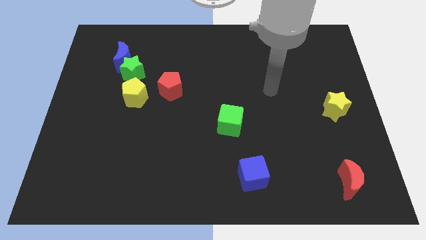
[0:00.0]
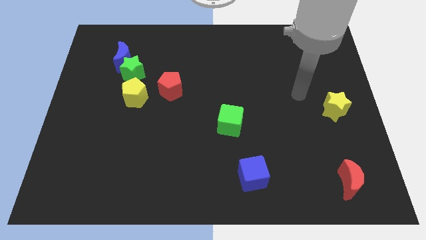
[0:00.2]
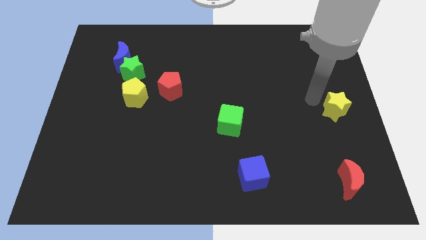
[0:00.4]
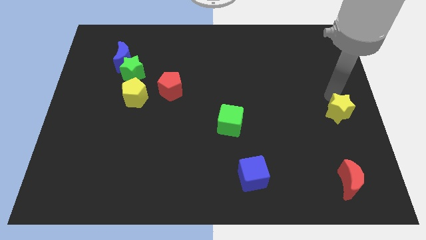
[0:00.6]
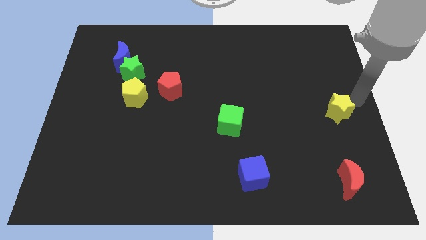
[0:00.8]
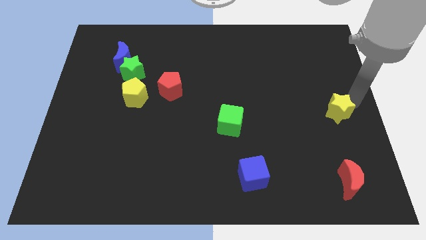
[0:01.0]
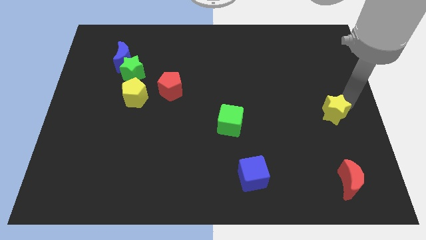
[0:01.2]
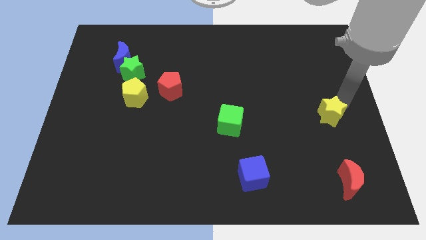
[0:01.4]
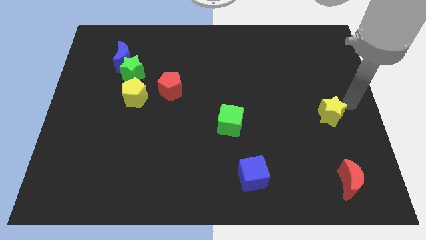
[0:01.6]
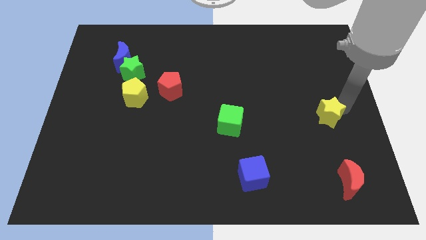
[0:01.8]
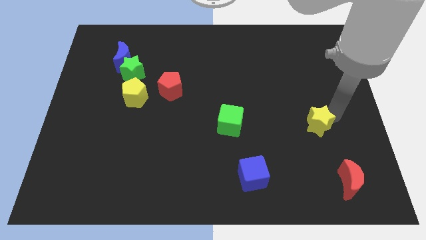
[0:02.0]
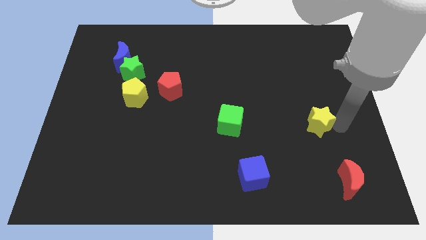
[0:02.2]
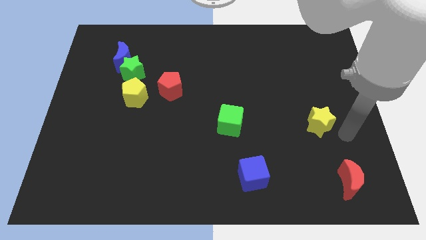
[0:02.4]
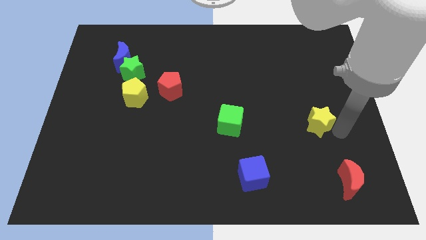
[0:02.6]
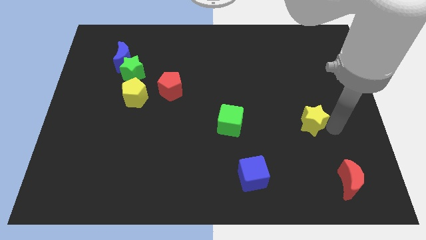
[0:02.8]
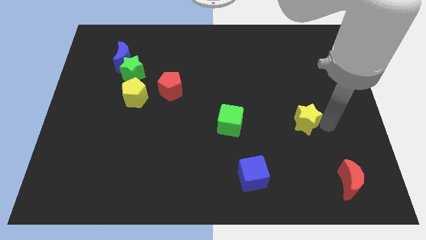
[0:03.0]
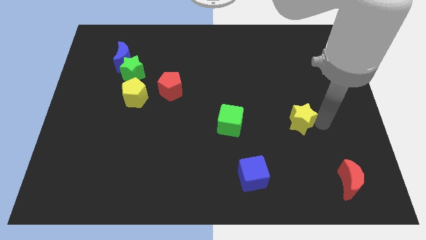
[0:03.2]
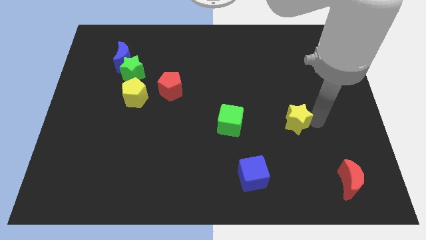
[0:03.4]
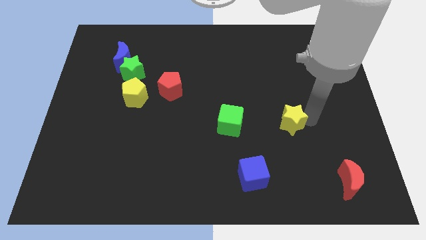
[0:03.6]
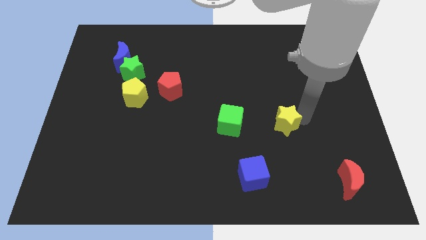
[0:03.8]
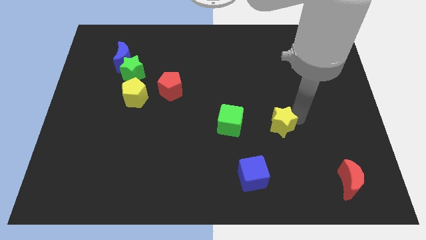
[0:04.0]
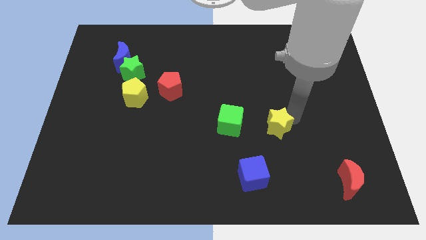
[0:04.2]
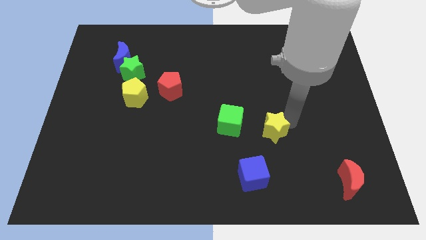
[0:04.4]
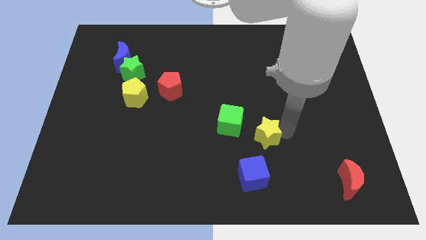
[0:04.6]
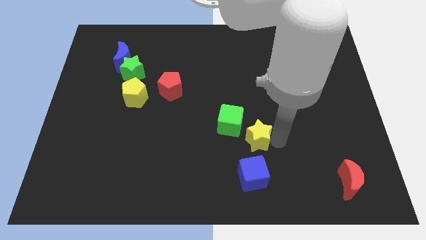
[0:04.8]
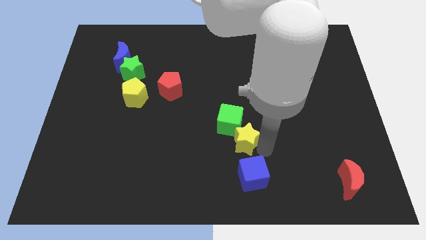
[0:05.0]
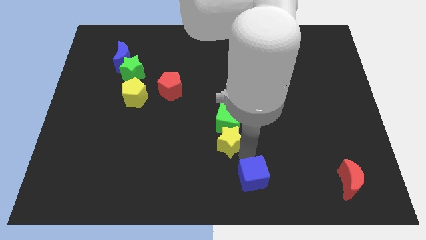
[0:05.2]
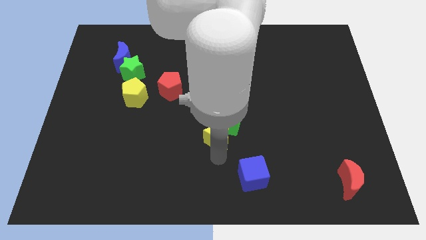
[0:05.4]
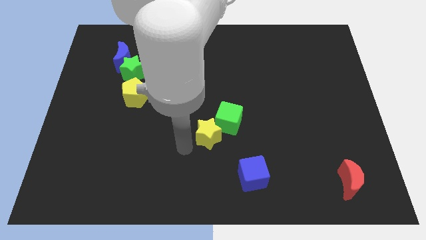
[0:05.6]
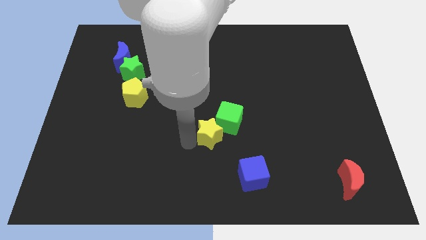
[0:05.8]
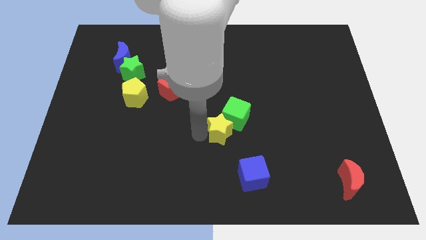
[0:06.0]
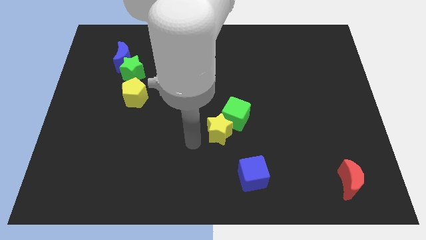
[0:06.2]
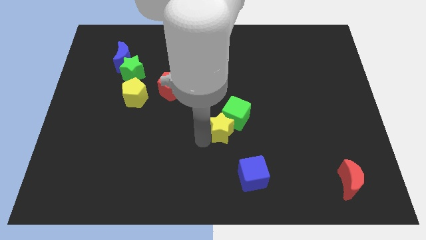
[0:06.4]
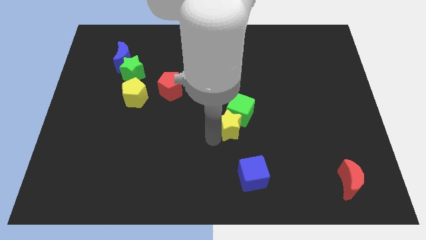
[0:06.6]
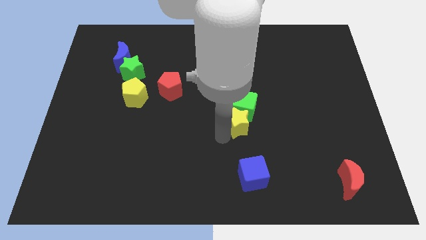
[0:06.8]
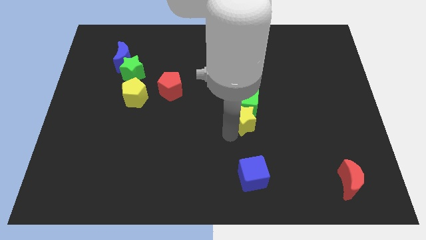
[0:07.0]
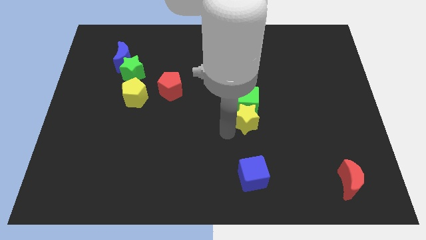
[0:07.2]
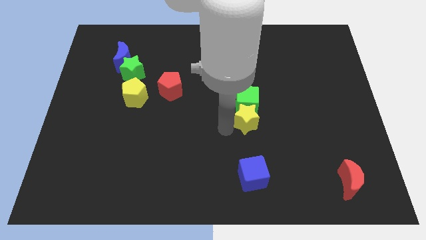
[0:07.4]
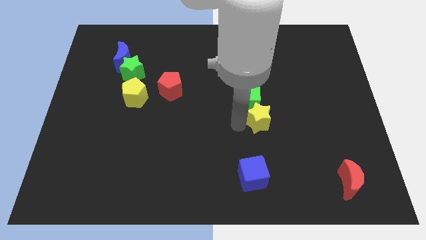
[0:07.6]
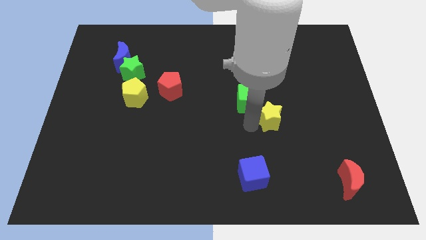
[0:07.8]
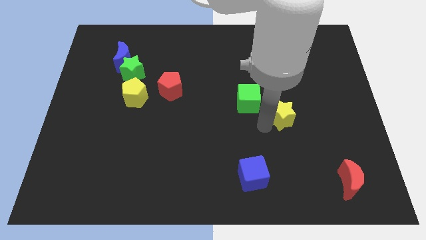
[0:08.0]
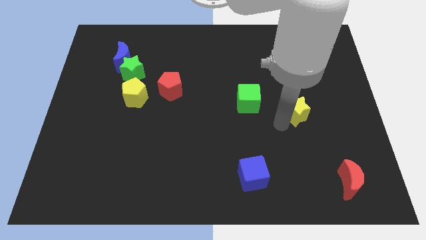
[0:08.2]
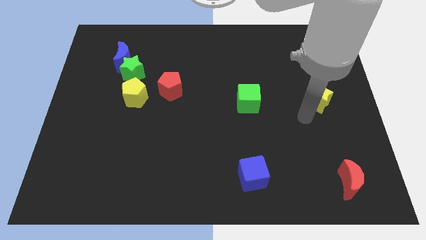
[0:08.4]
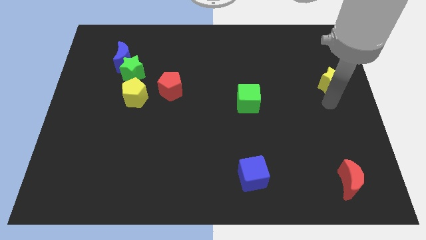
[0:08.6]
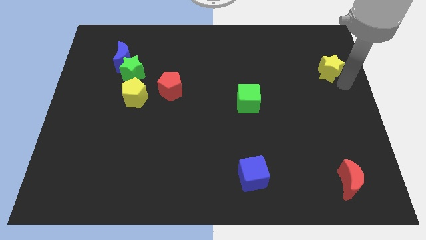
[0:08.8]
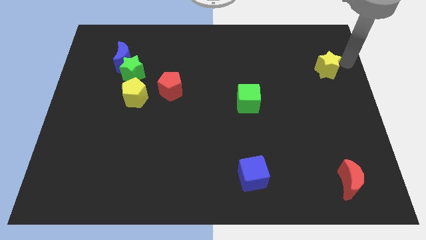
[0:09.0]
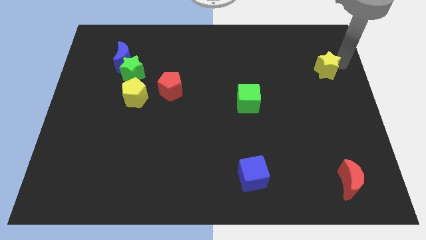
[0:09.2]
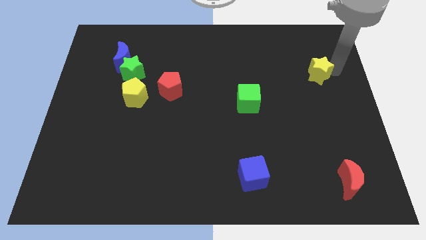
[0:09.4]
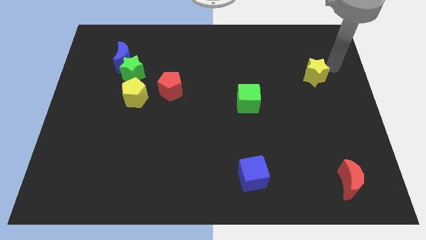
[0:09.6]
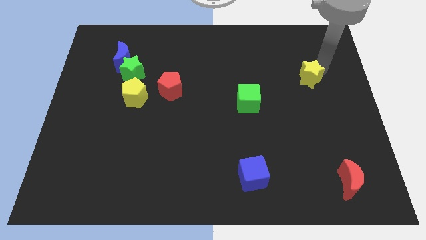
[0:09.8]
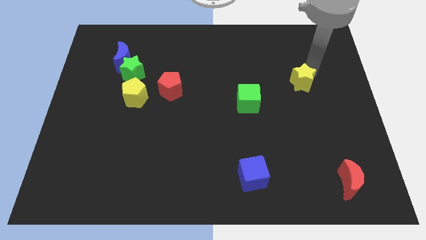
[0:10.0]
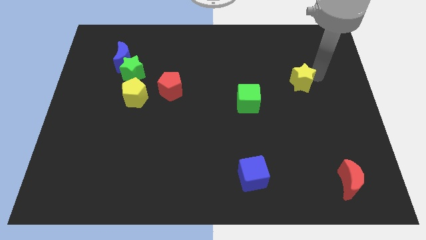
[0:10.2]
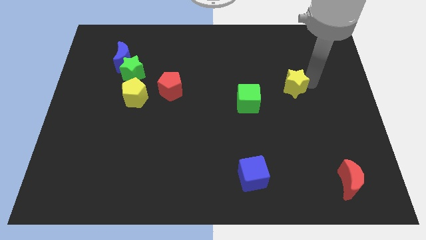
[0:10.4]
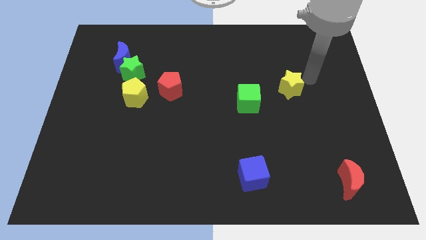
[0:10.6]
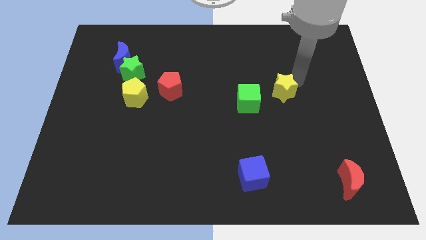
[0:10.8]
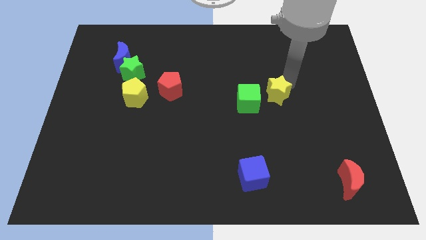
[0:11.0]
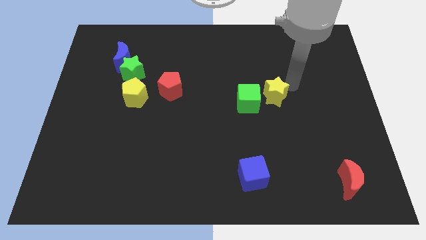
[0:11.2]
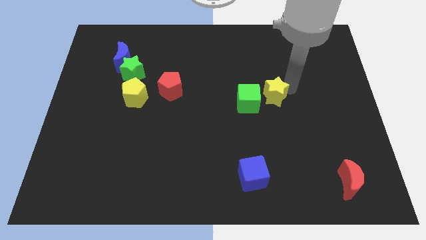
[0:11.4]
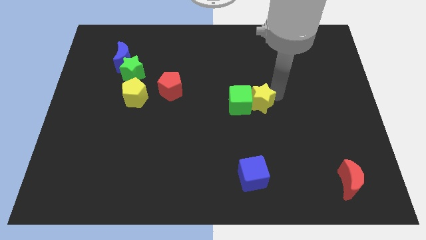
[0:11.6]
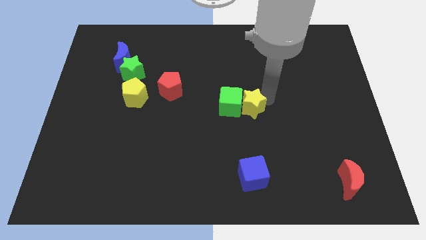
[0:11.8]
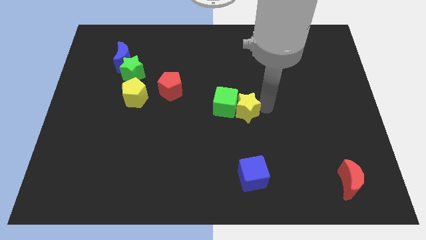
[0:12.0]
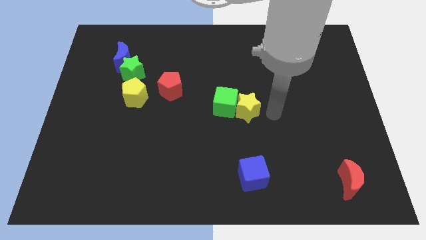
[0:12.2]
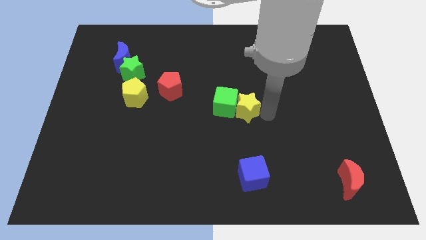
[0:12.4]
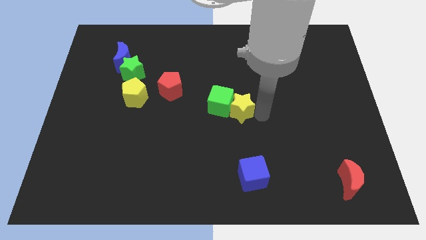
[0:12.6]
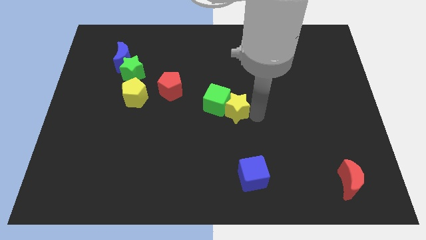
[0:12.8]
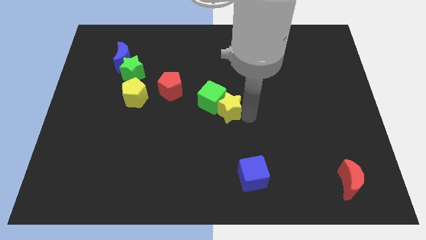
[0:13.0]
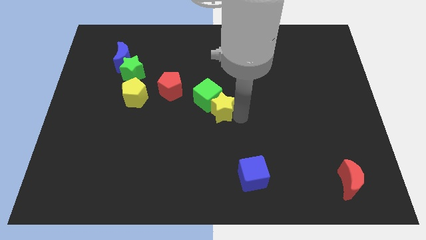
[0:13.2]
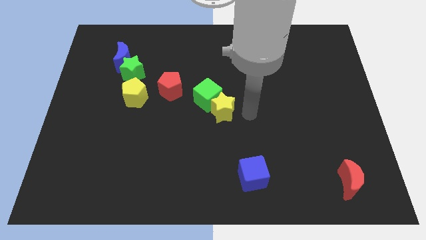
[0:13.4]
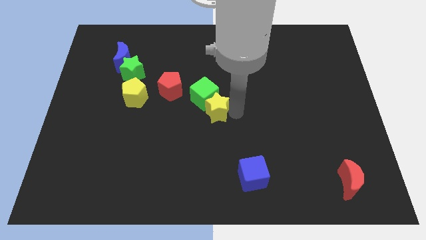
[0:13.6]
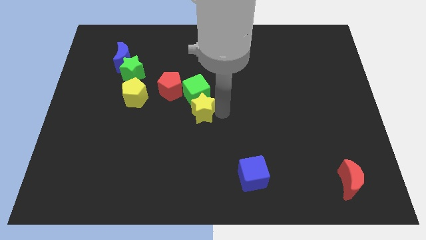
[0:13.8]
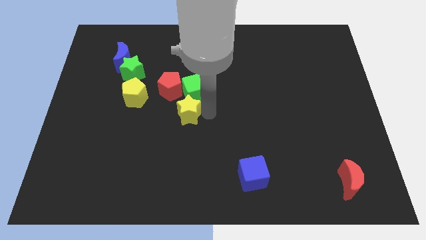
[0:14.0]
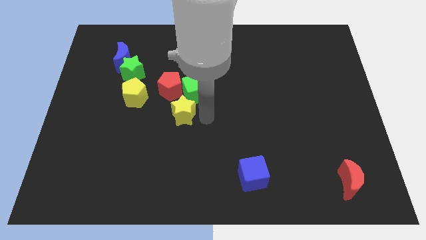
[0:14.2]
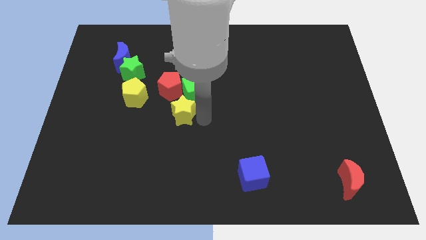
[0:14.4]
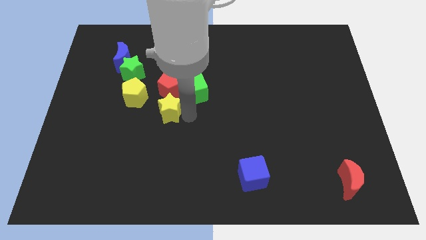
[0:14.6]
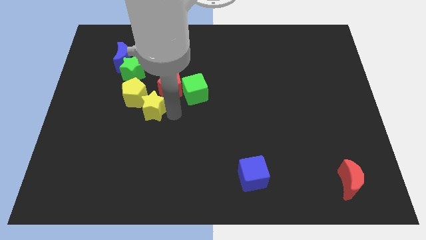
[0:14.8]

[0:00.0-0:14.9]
put the yellow star next to the yellow pentagon

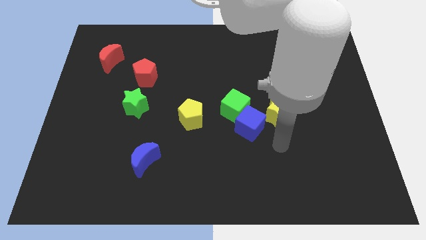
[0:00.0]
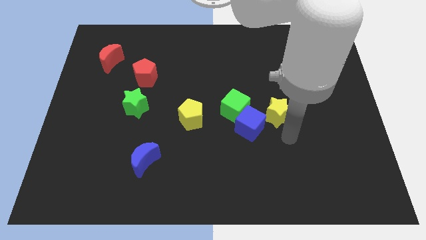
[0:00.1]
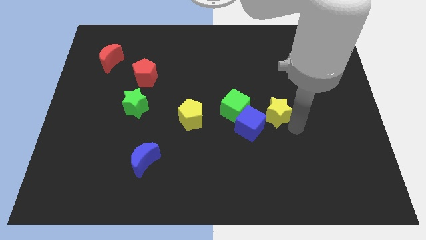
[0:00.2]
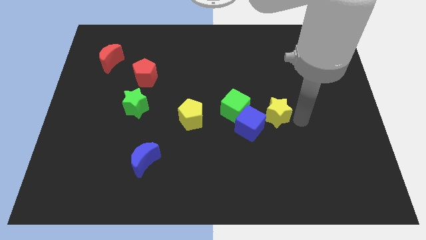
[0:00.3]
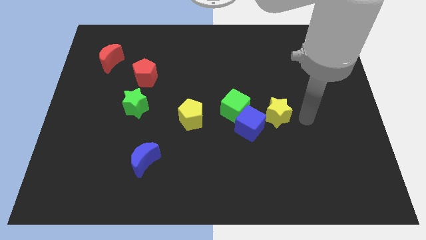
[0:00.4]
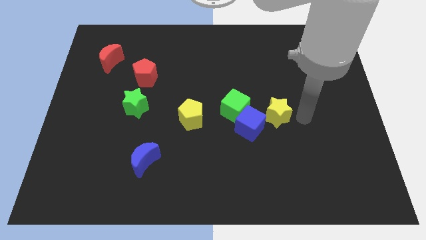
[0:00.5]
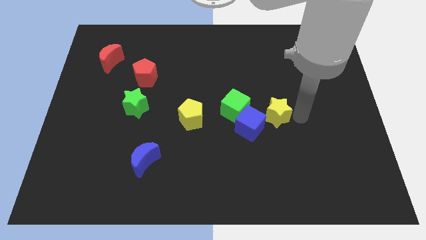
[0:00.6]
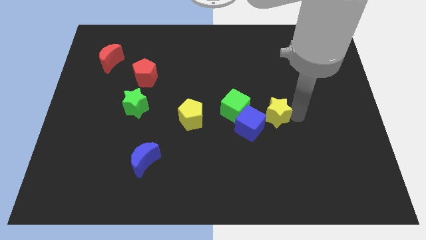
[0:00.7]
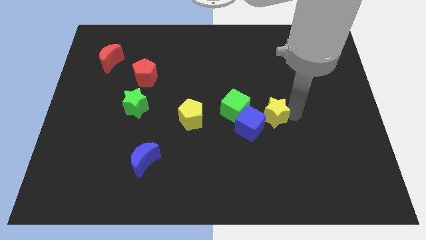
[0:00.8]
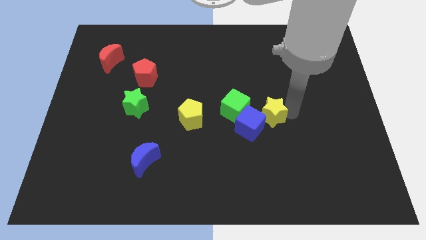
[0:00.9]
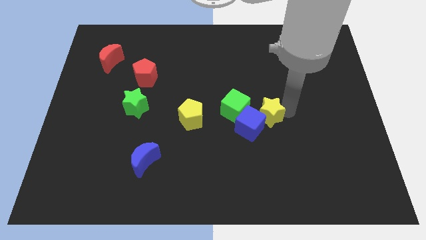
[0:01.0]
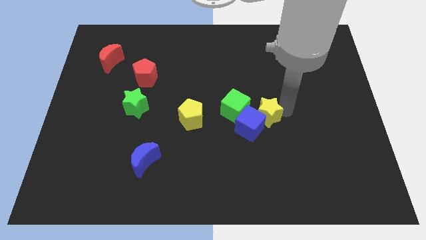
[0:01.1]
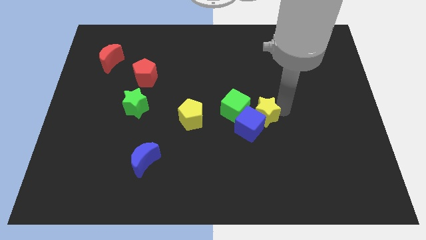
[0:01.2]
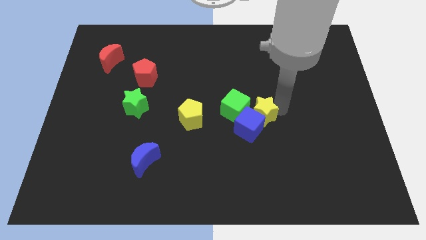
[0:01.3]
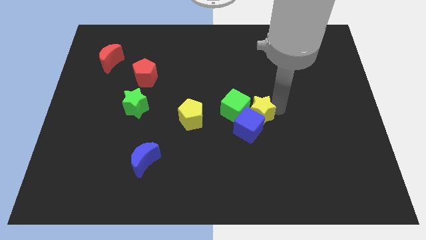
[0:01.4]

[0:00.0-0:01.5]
slide the yellow star close to the green cube
